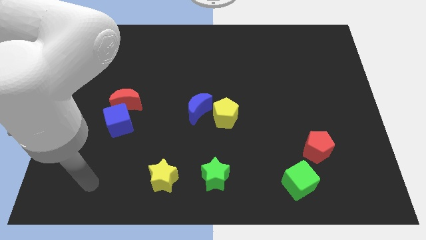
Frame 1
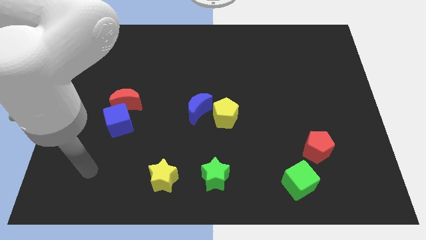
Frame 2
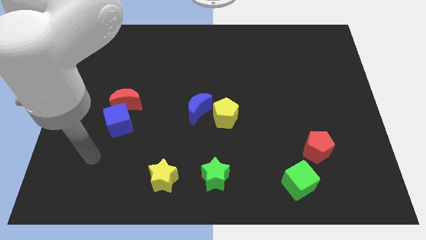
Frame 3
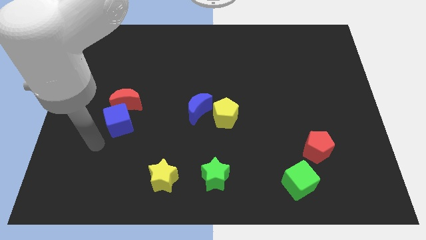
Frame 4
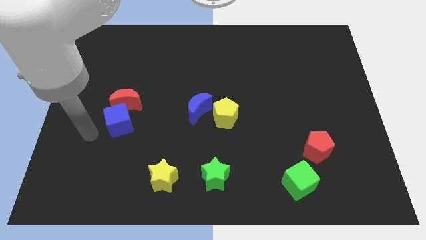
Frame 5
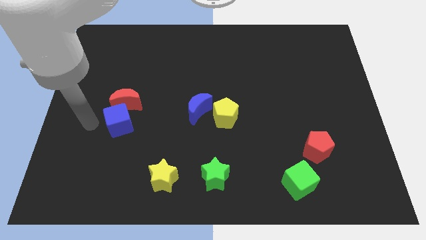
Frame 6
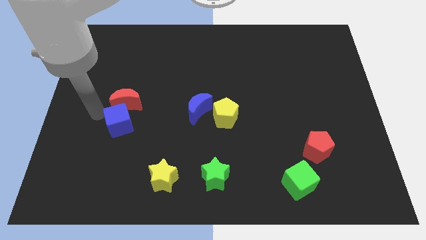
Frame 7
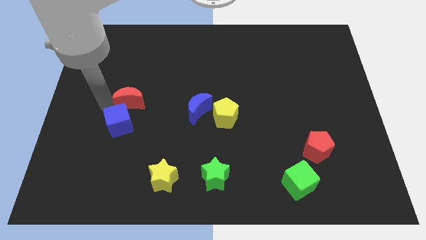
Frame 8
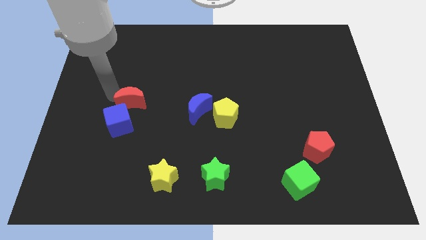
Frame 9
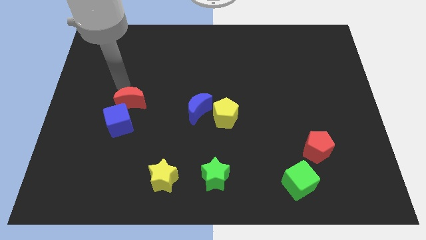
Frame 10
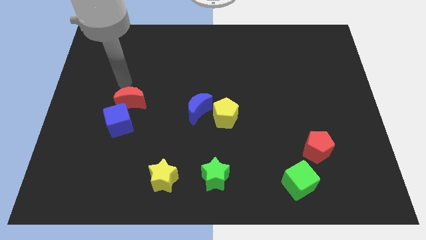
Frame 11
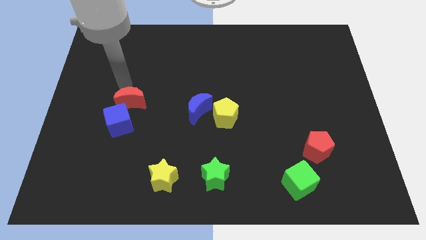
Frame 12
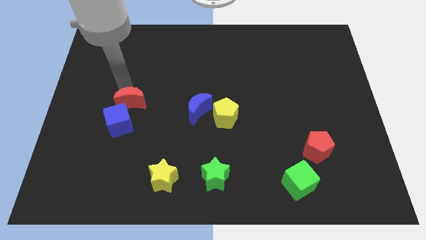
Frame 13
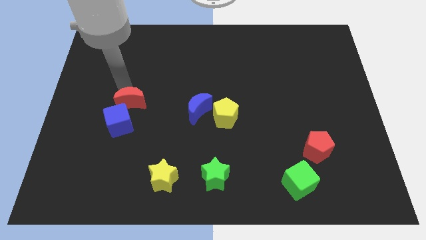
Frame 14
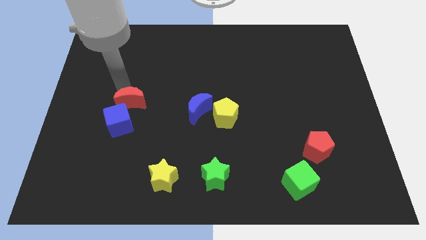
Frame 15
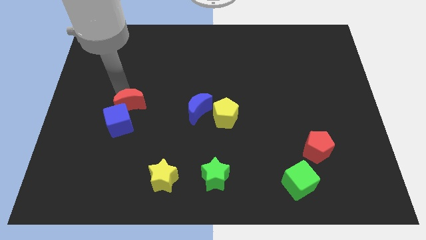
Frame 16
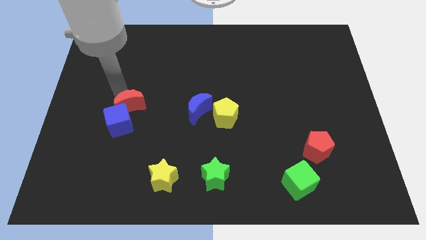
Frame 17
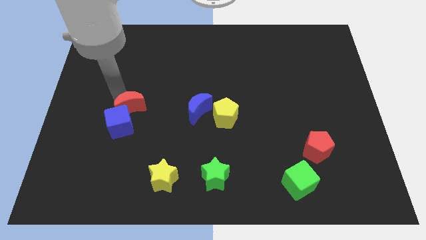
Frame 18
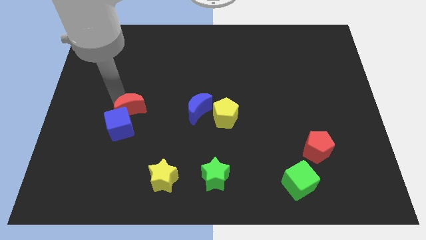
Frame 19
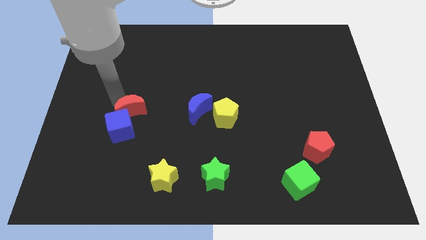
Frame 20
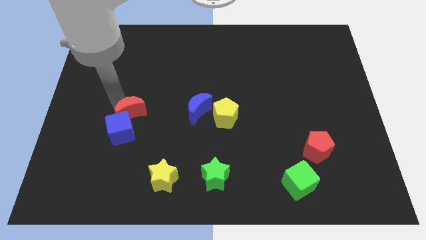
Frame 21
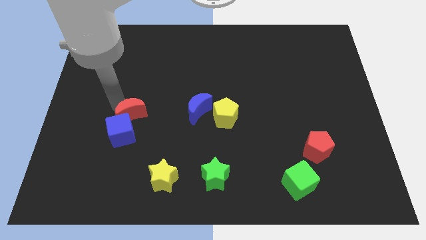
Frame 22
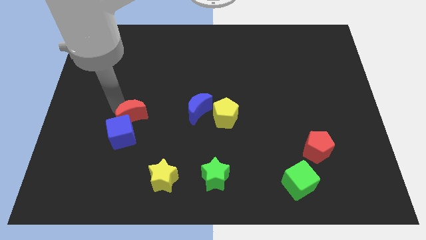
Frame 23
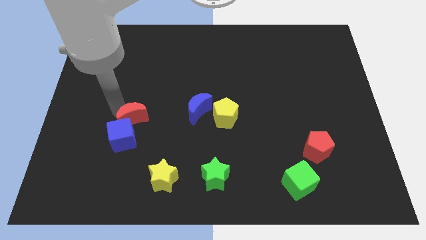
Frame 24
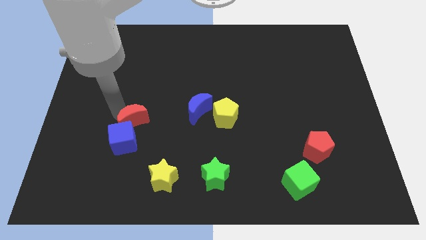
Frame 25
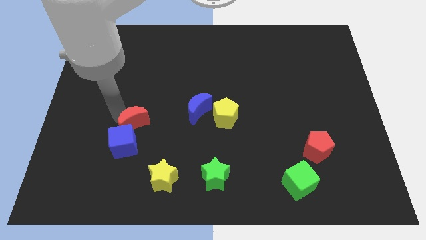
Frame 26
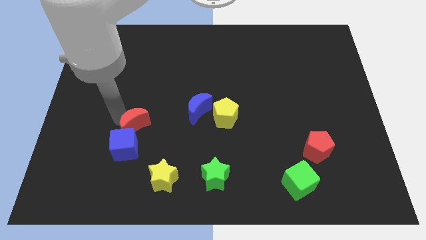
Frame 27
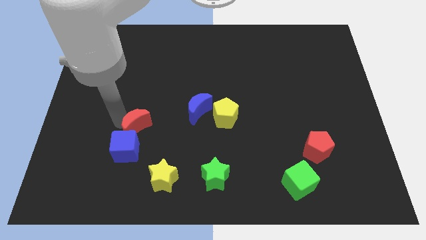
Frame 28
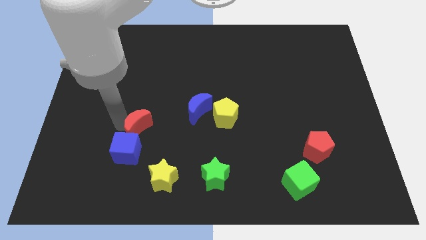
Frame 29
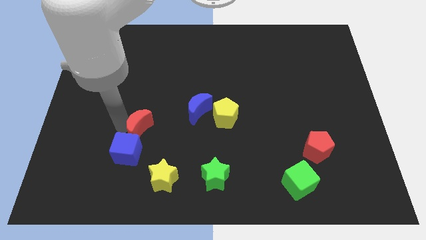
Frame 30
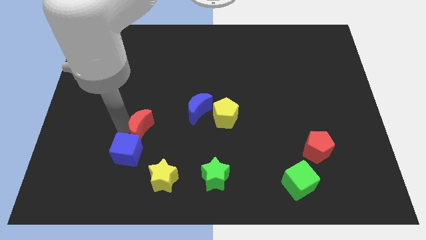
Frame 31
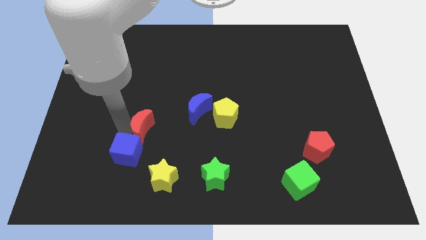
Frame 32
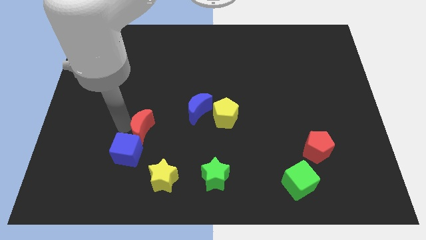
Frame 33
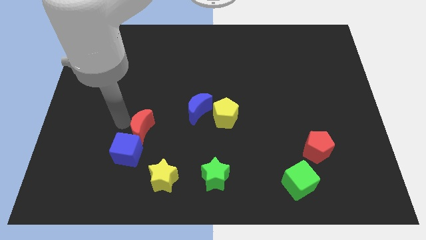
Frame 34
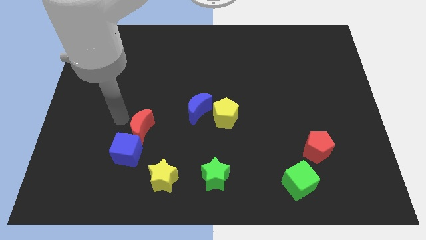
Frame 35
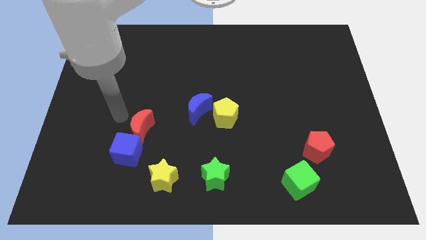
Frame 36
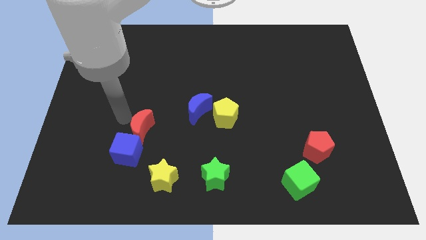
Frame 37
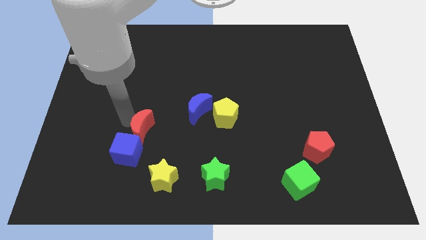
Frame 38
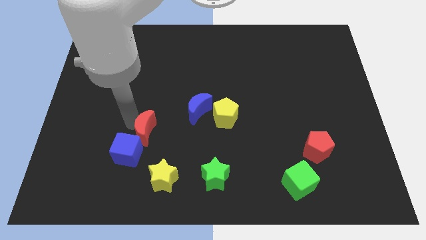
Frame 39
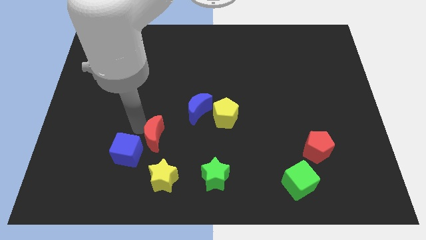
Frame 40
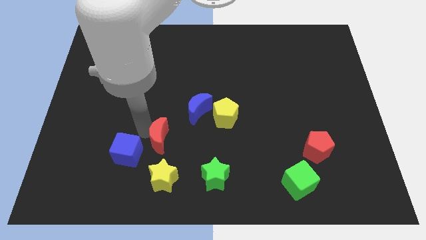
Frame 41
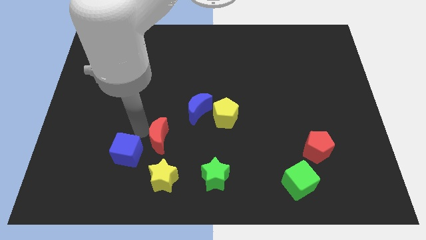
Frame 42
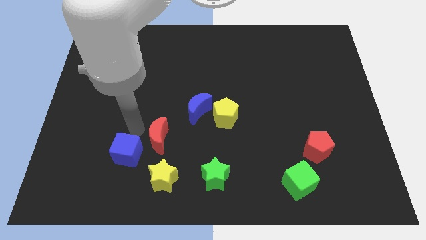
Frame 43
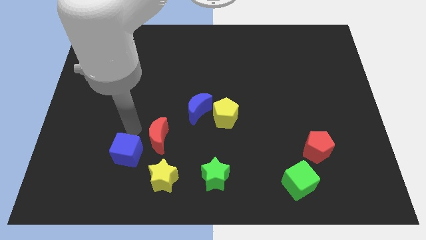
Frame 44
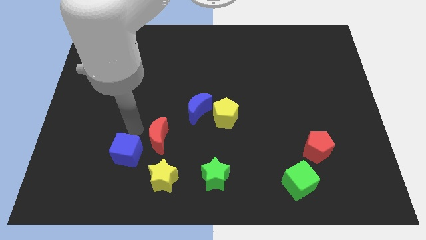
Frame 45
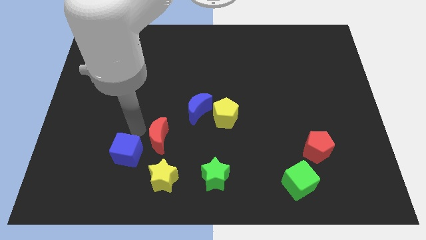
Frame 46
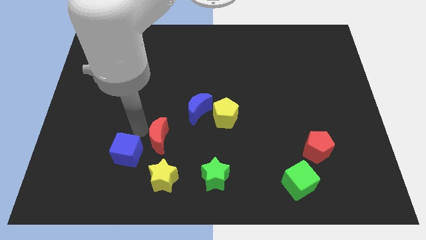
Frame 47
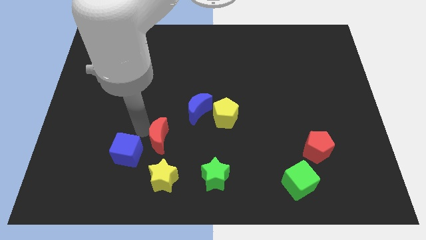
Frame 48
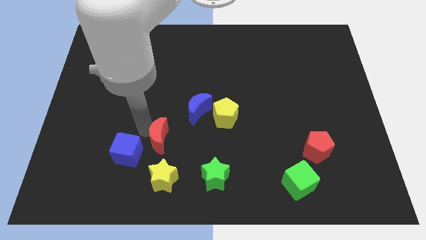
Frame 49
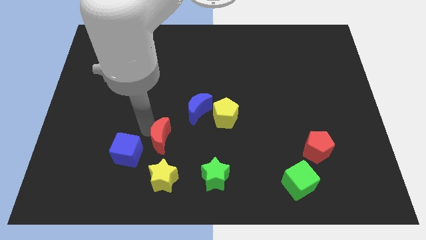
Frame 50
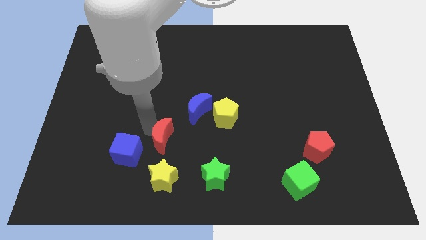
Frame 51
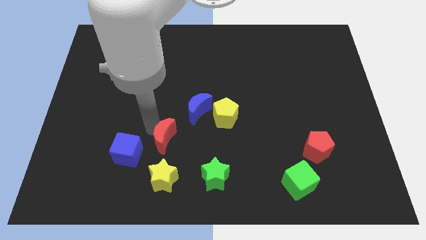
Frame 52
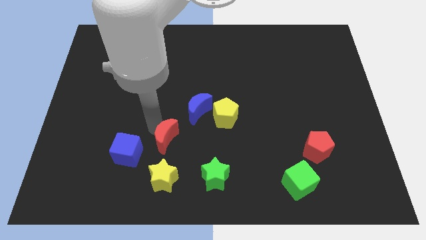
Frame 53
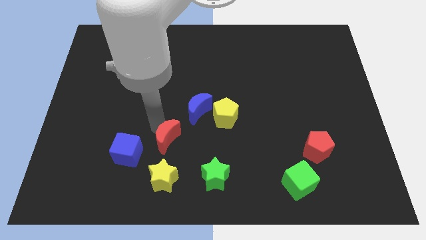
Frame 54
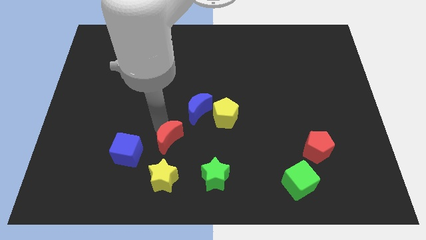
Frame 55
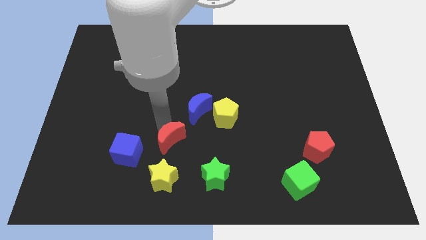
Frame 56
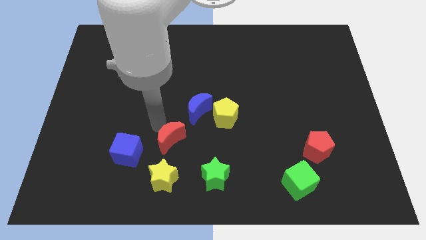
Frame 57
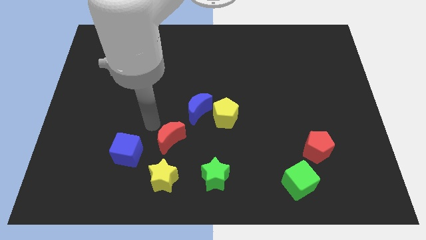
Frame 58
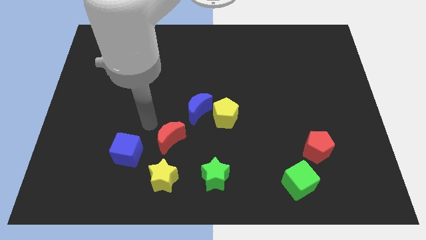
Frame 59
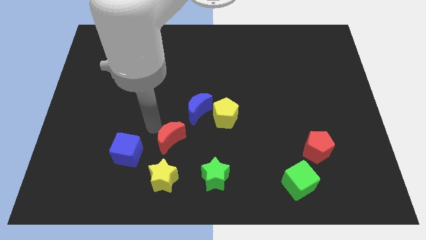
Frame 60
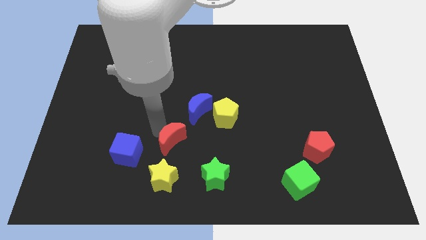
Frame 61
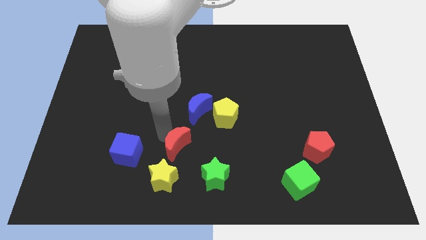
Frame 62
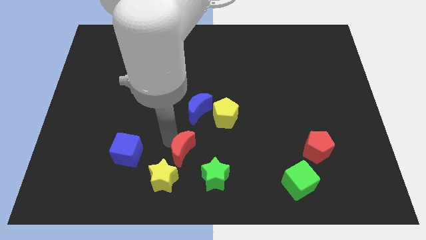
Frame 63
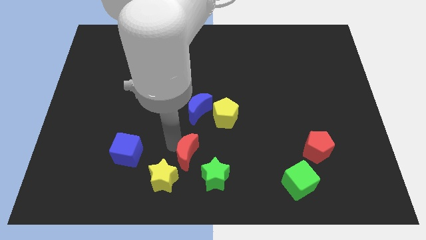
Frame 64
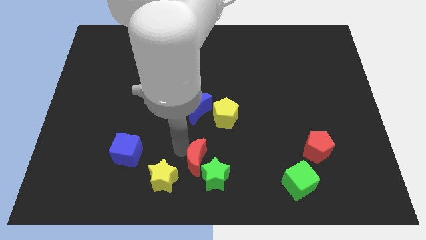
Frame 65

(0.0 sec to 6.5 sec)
push the red moon next to the green star

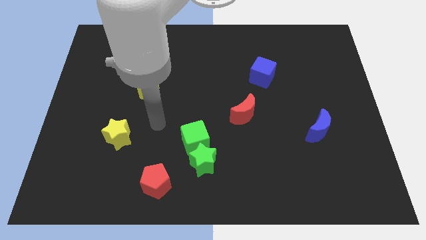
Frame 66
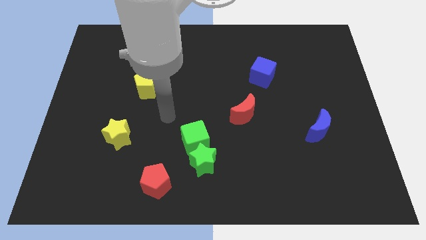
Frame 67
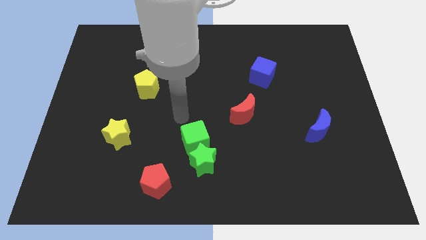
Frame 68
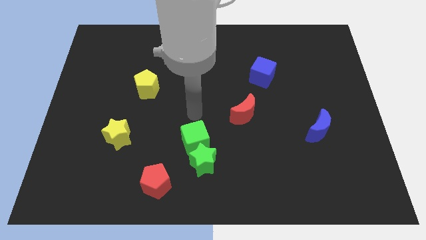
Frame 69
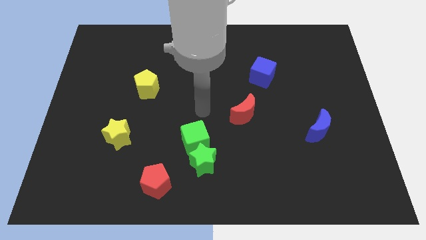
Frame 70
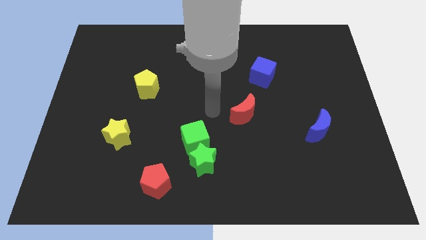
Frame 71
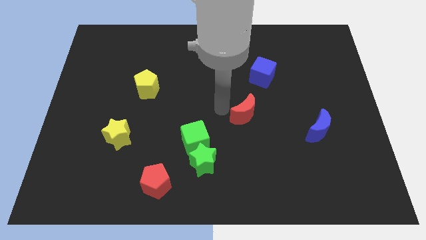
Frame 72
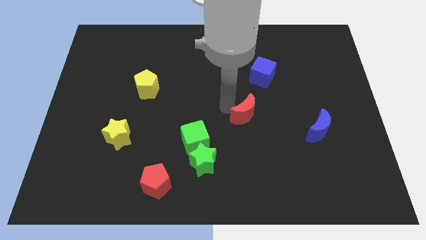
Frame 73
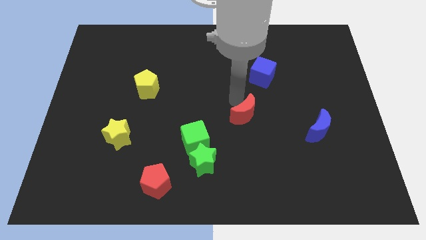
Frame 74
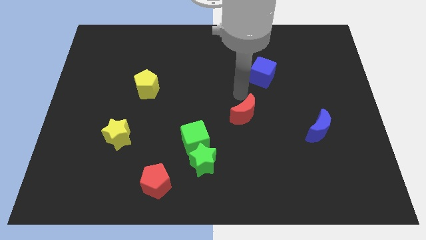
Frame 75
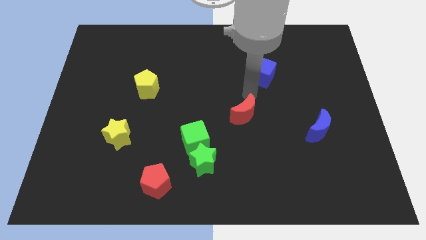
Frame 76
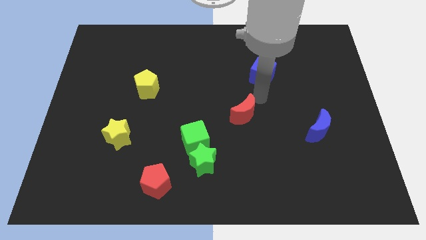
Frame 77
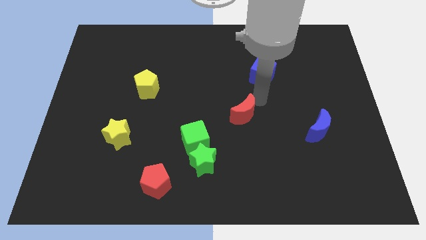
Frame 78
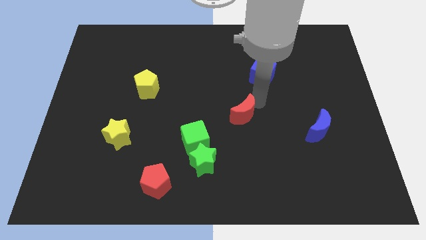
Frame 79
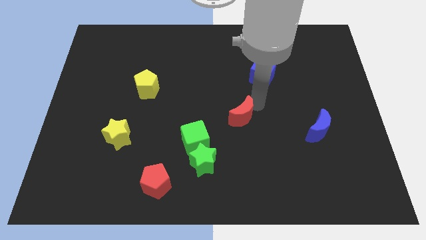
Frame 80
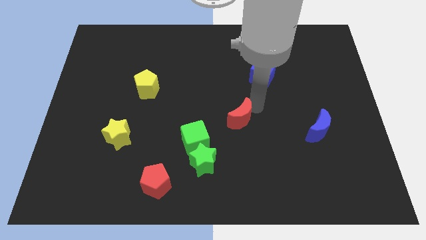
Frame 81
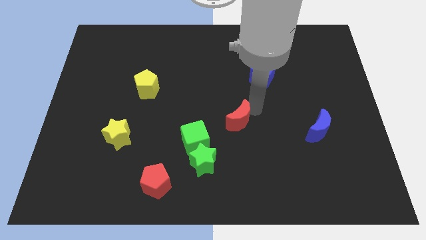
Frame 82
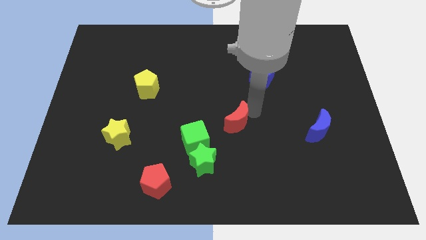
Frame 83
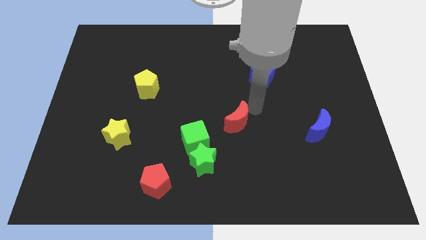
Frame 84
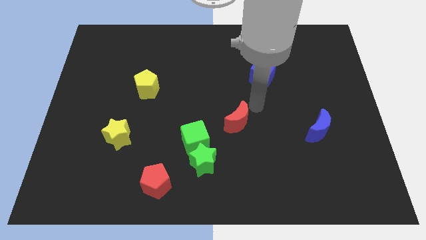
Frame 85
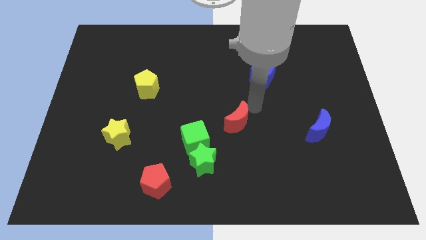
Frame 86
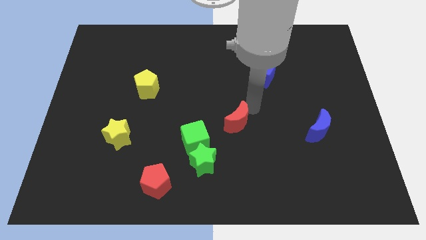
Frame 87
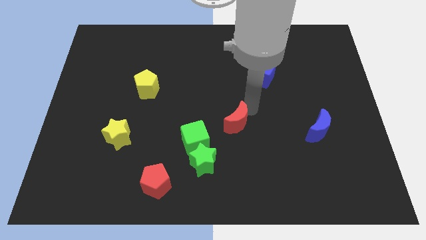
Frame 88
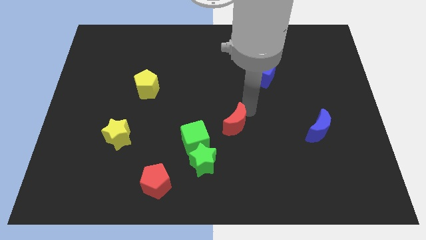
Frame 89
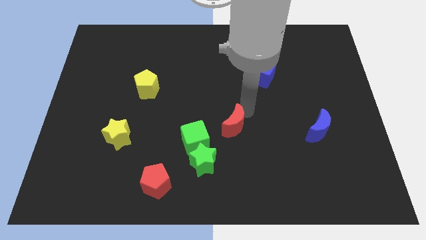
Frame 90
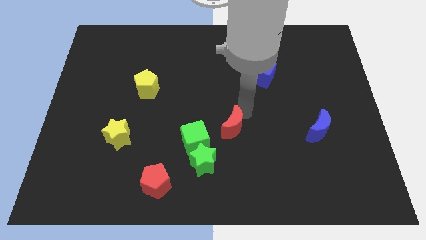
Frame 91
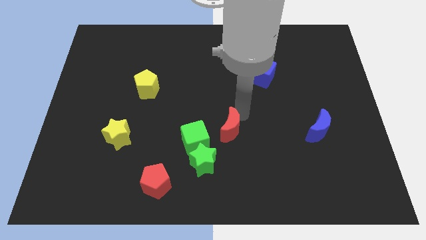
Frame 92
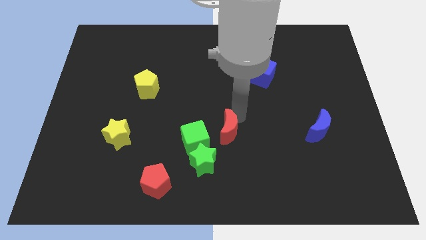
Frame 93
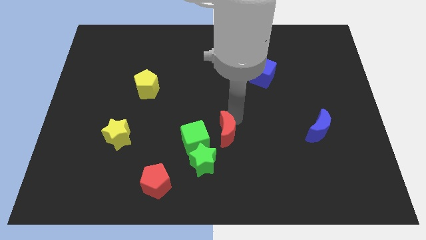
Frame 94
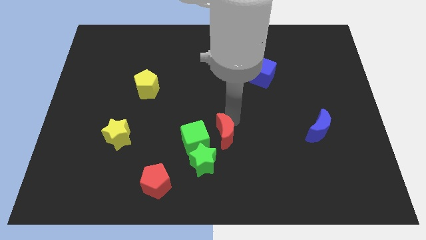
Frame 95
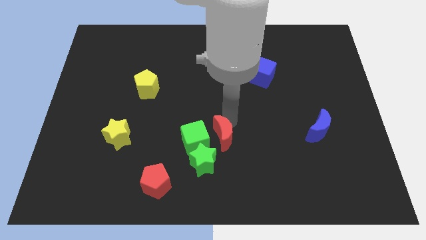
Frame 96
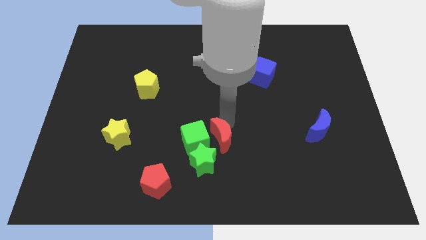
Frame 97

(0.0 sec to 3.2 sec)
put the red moon towards the green cube
